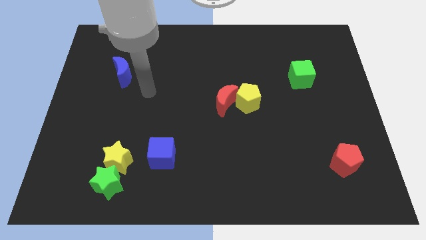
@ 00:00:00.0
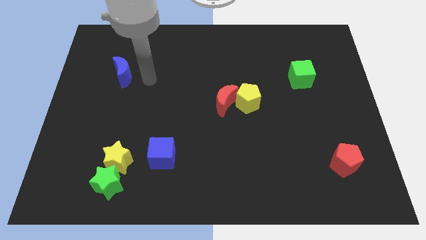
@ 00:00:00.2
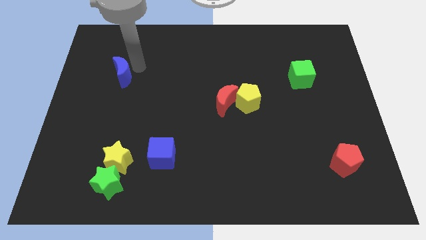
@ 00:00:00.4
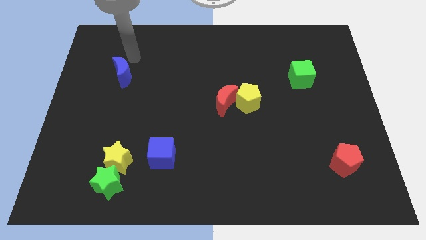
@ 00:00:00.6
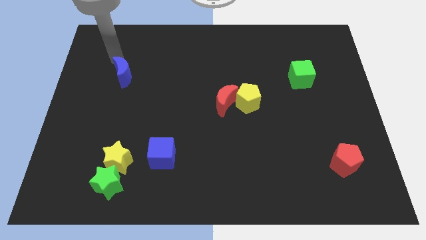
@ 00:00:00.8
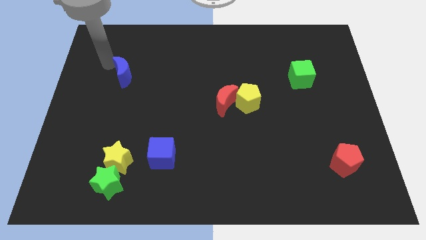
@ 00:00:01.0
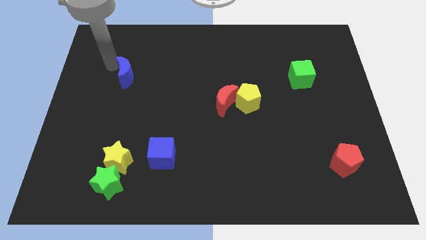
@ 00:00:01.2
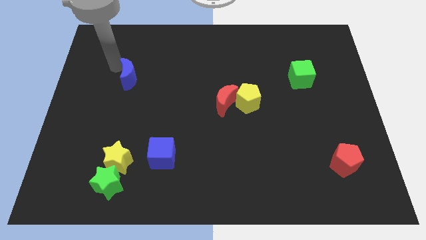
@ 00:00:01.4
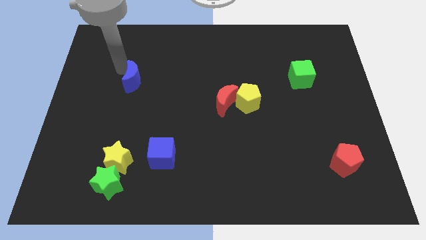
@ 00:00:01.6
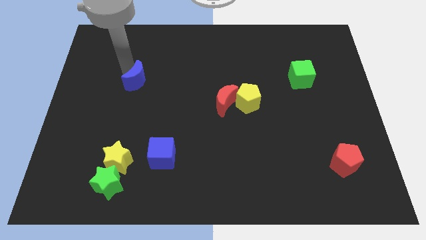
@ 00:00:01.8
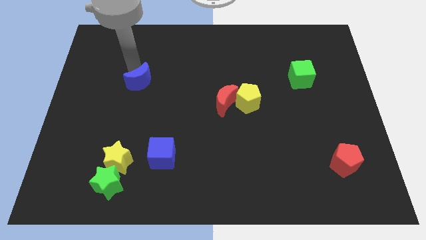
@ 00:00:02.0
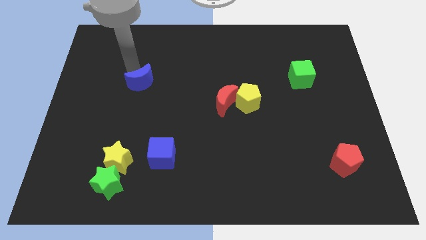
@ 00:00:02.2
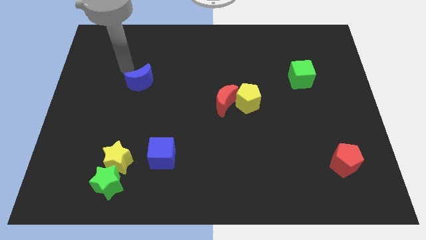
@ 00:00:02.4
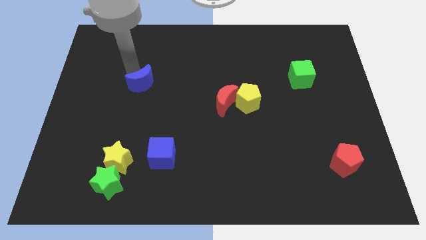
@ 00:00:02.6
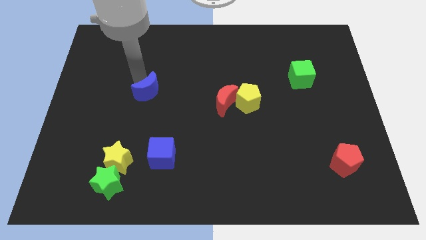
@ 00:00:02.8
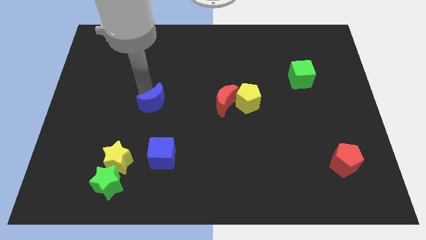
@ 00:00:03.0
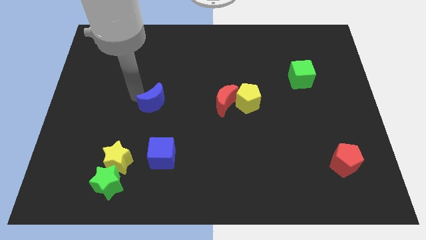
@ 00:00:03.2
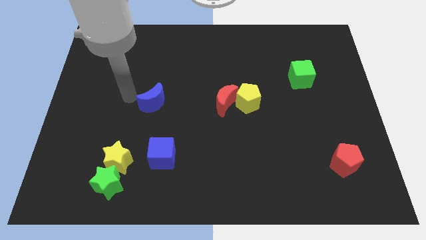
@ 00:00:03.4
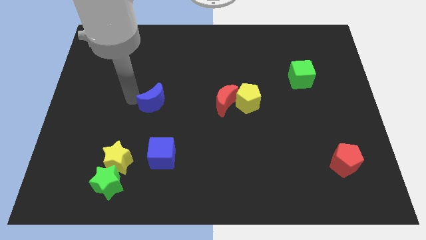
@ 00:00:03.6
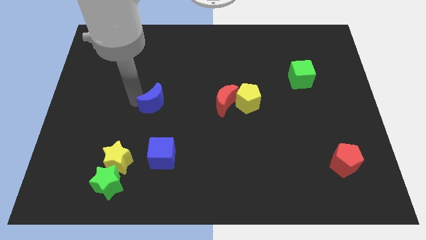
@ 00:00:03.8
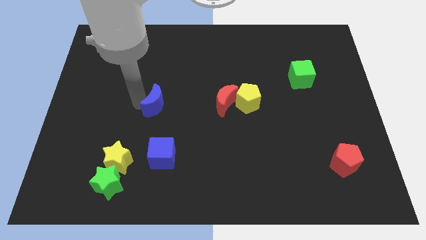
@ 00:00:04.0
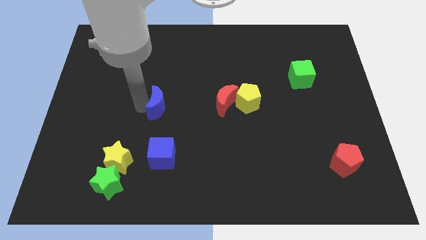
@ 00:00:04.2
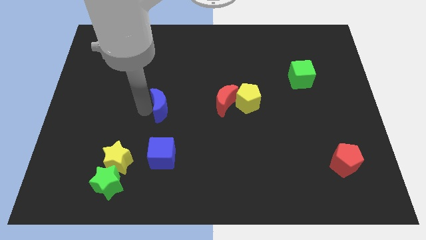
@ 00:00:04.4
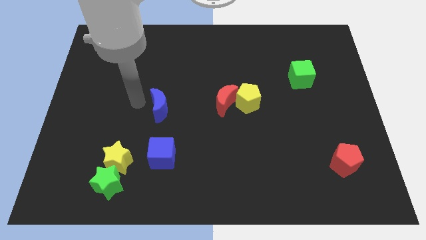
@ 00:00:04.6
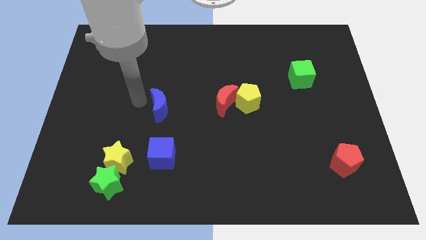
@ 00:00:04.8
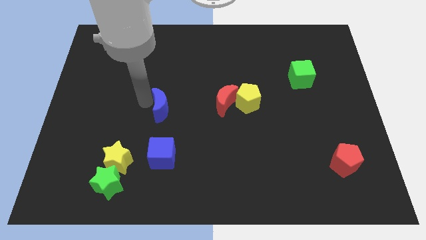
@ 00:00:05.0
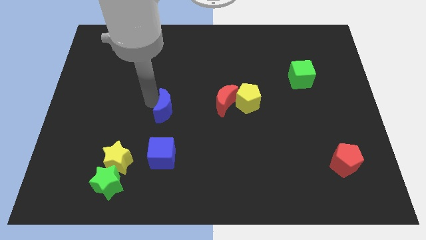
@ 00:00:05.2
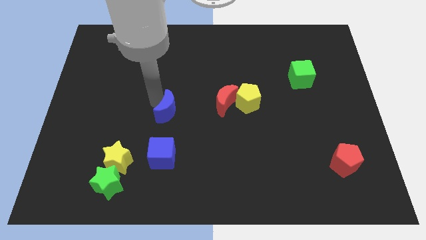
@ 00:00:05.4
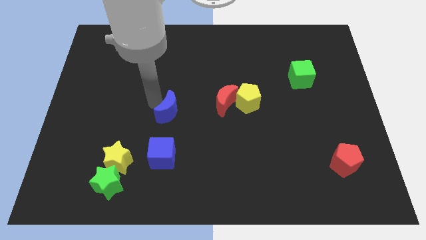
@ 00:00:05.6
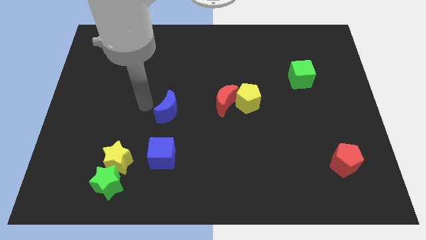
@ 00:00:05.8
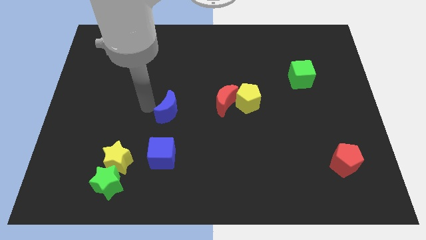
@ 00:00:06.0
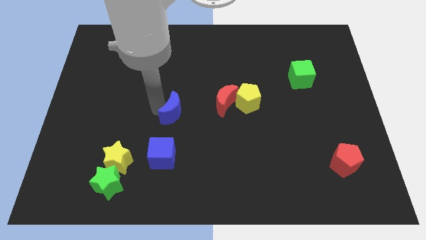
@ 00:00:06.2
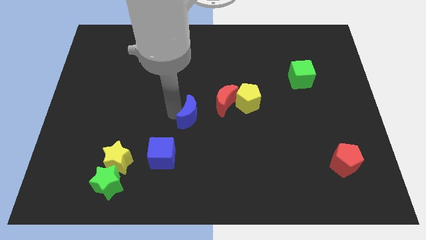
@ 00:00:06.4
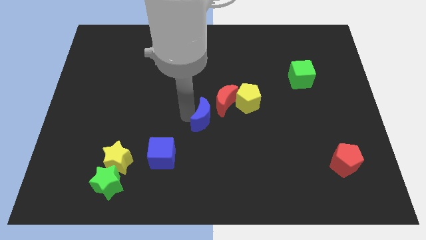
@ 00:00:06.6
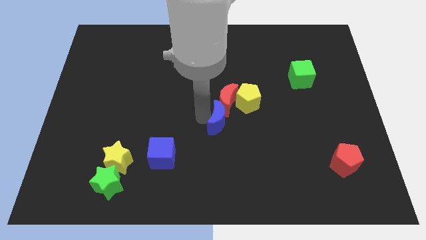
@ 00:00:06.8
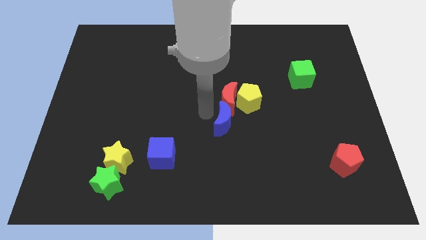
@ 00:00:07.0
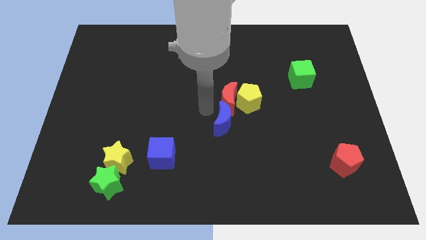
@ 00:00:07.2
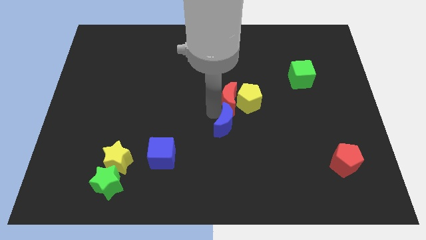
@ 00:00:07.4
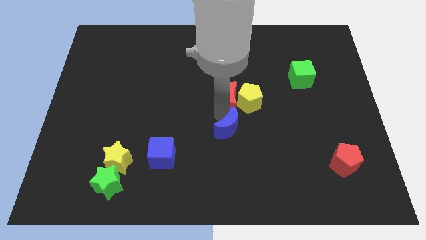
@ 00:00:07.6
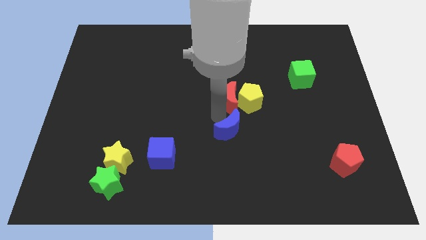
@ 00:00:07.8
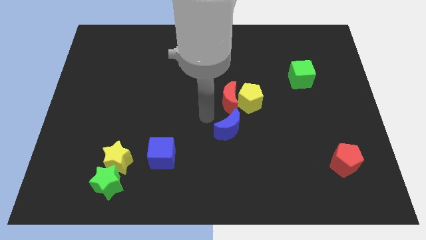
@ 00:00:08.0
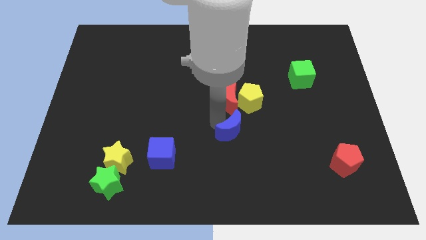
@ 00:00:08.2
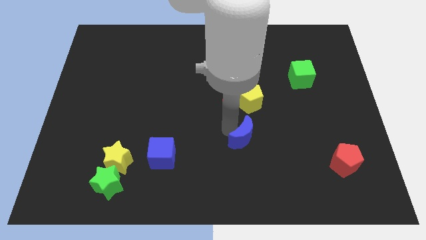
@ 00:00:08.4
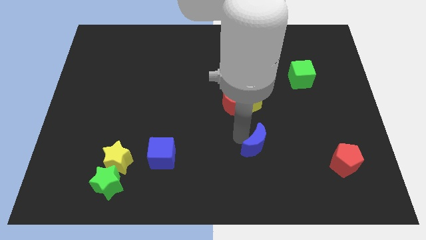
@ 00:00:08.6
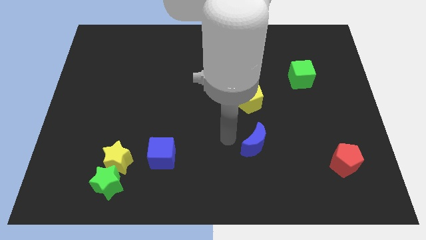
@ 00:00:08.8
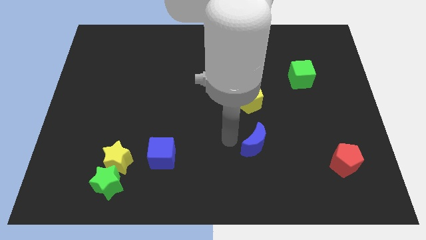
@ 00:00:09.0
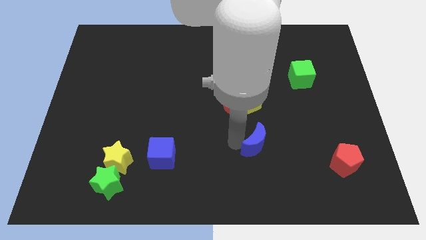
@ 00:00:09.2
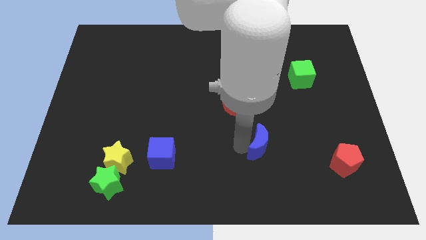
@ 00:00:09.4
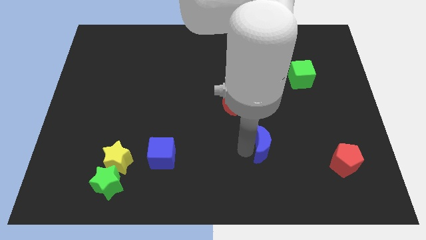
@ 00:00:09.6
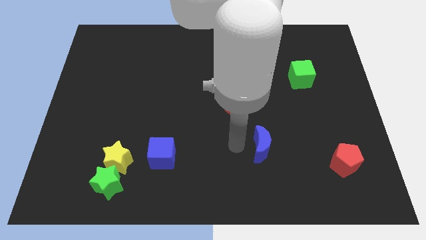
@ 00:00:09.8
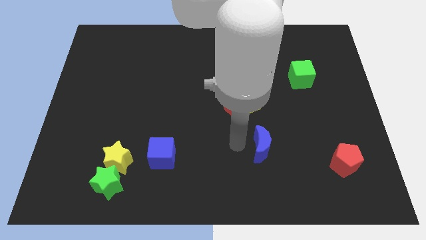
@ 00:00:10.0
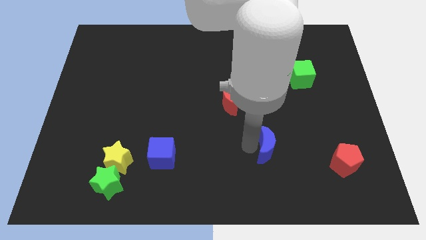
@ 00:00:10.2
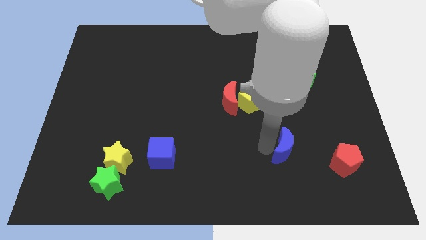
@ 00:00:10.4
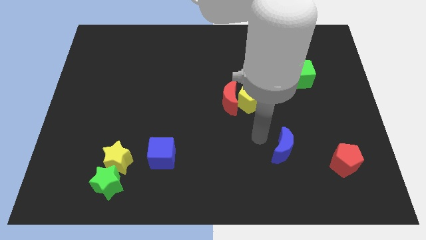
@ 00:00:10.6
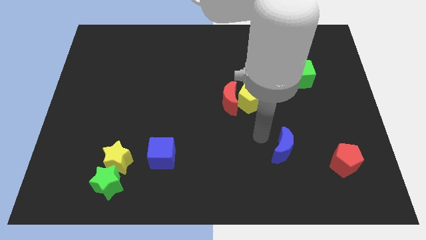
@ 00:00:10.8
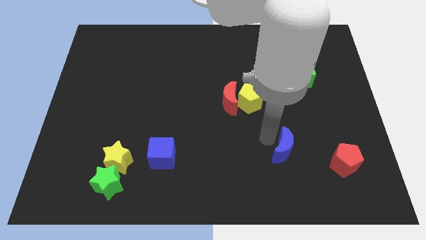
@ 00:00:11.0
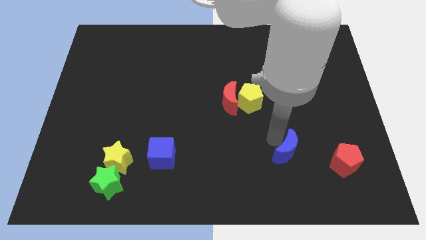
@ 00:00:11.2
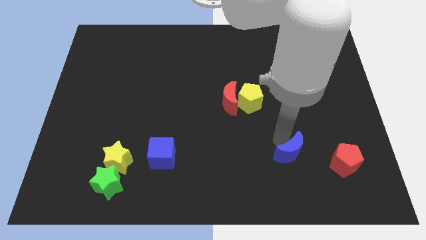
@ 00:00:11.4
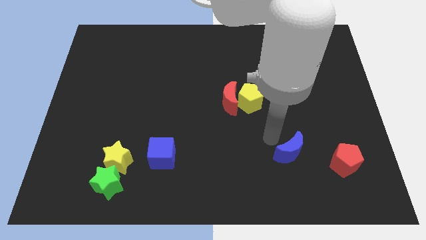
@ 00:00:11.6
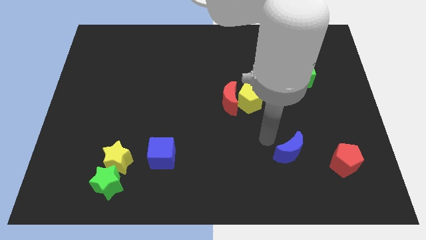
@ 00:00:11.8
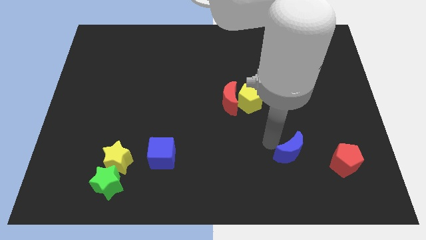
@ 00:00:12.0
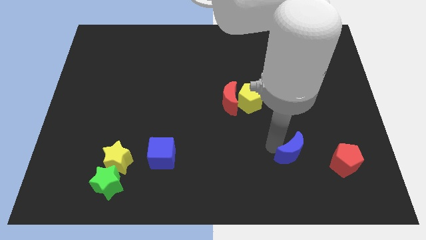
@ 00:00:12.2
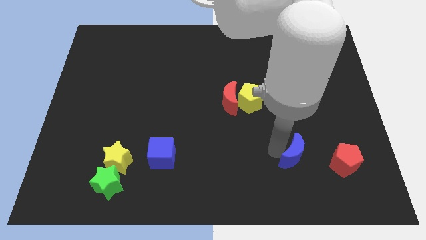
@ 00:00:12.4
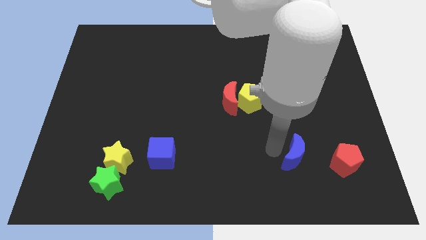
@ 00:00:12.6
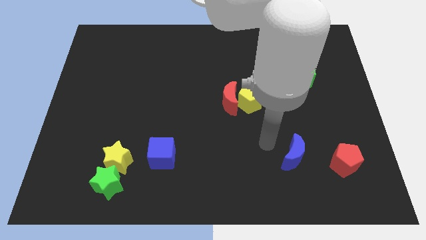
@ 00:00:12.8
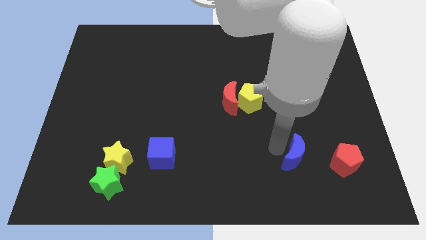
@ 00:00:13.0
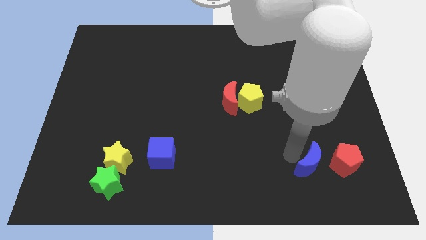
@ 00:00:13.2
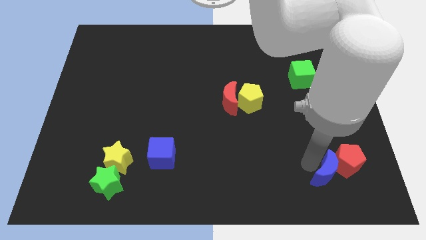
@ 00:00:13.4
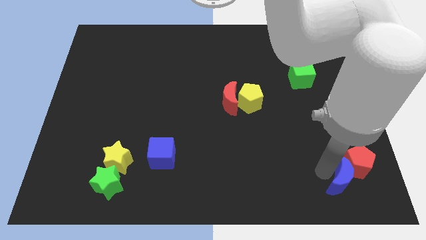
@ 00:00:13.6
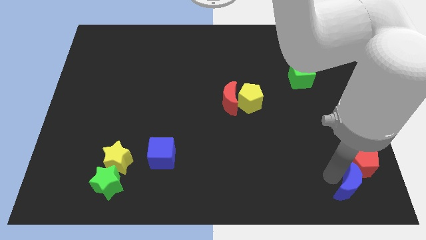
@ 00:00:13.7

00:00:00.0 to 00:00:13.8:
put the blue moon to the lower right corner
